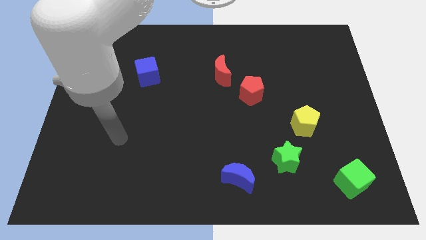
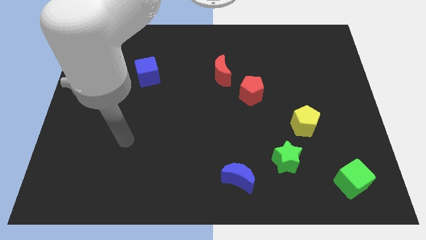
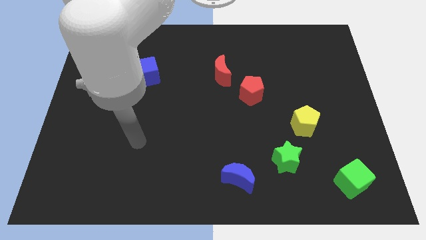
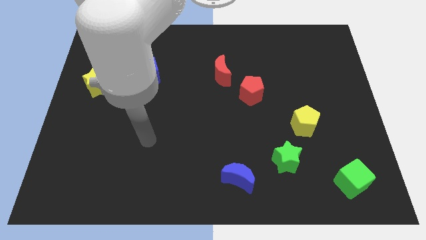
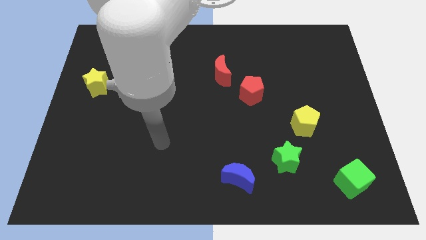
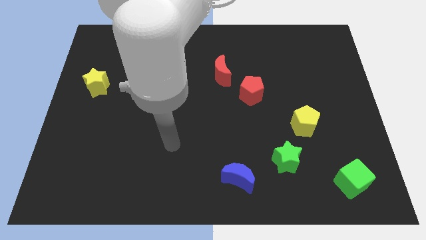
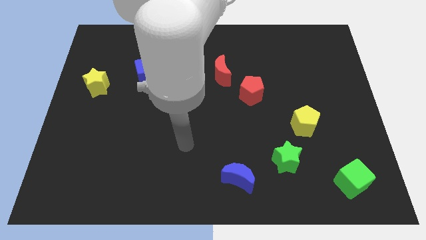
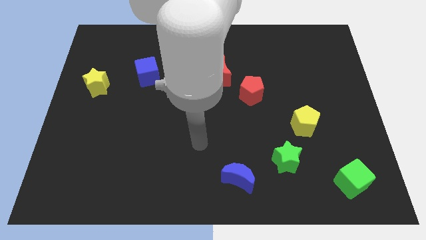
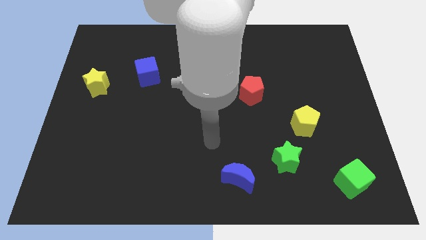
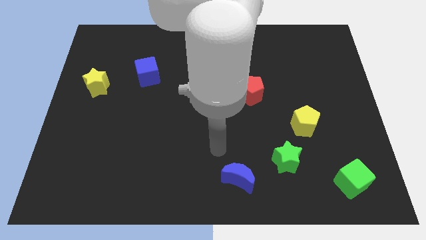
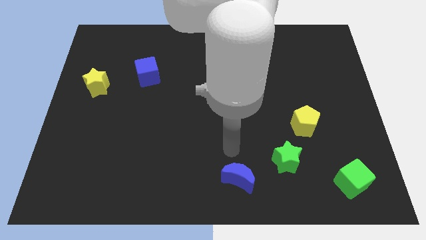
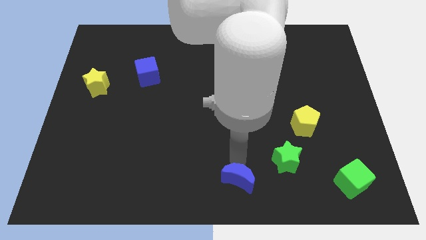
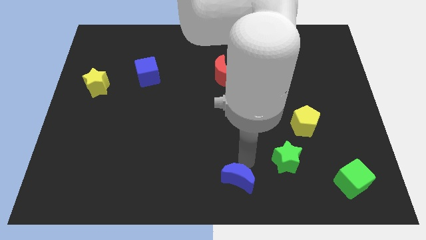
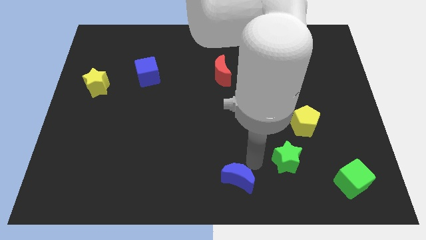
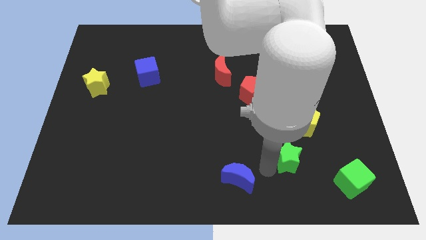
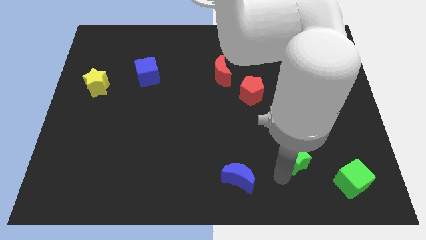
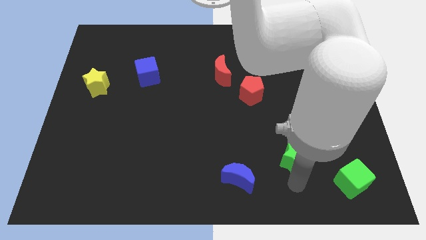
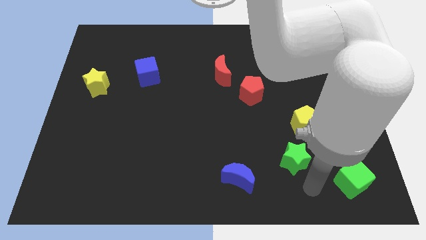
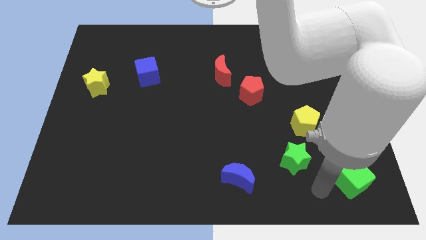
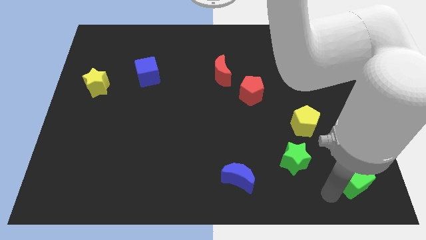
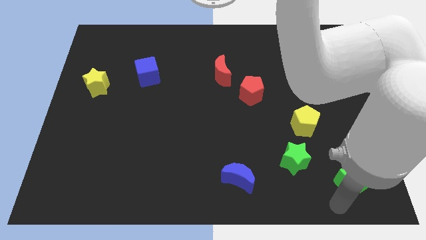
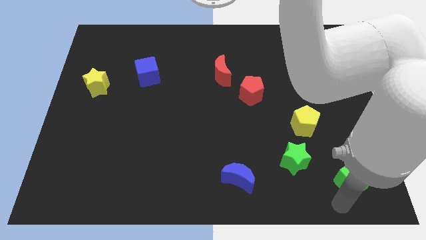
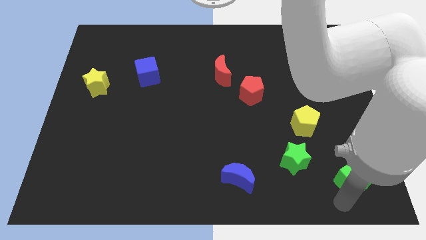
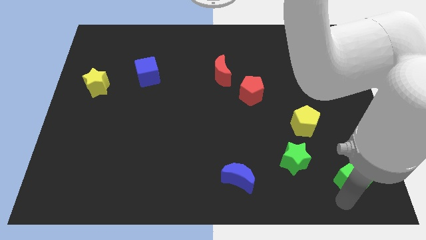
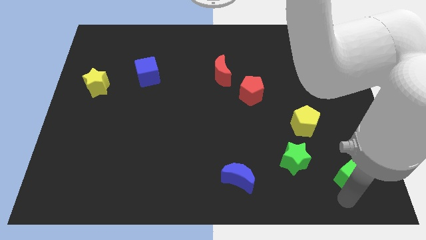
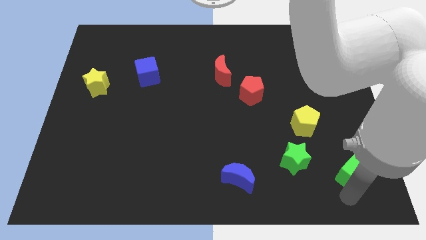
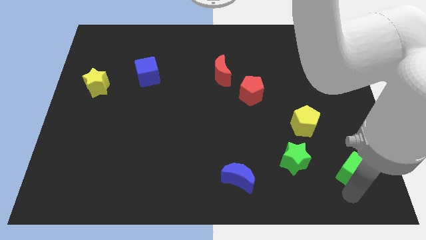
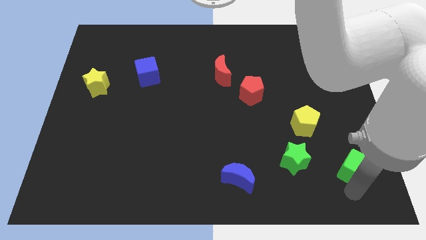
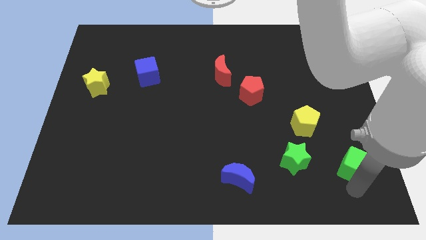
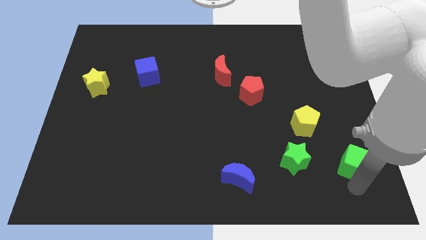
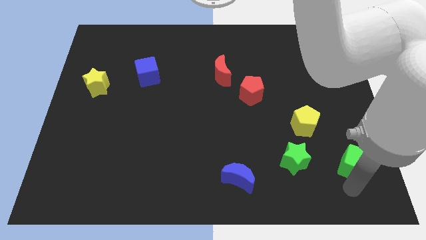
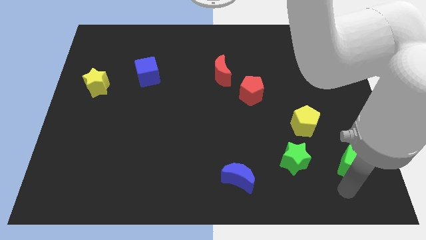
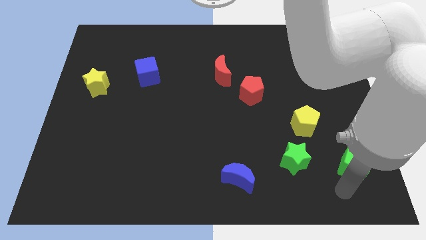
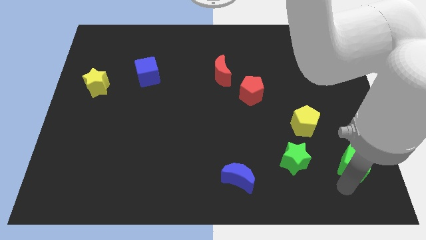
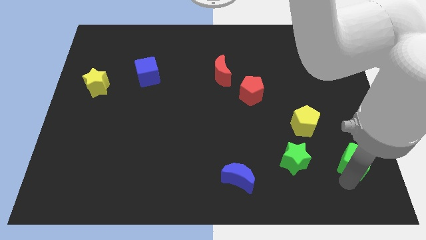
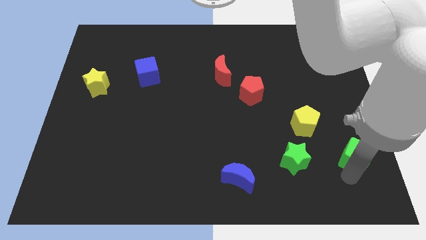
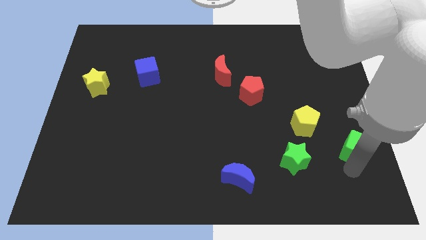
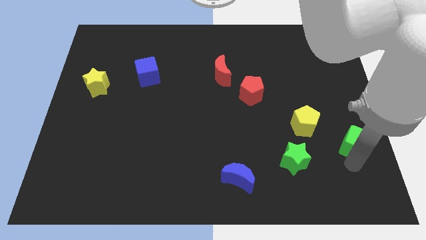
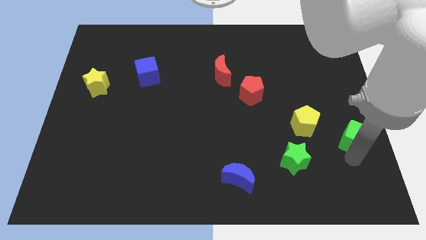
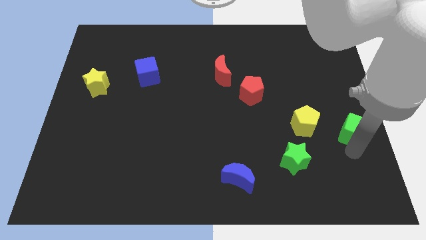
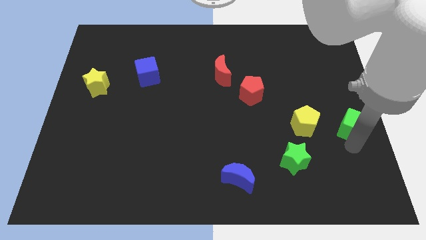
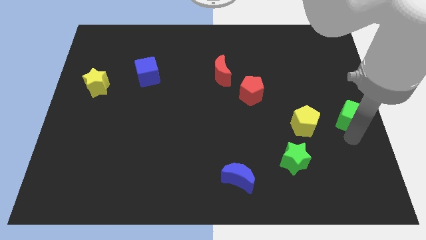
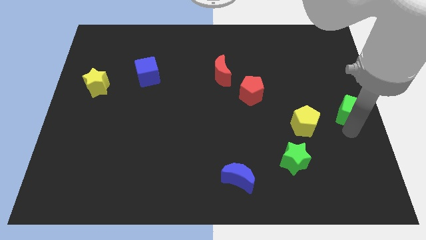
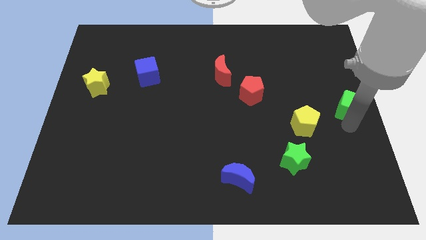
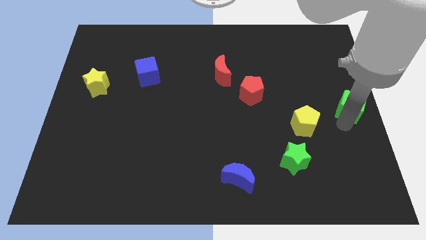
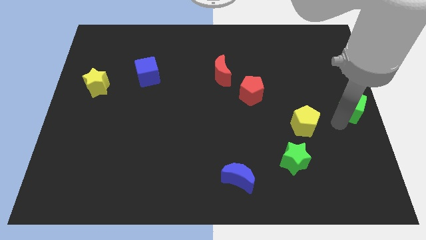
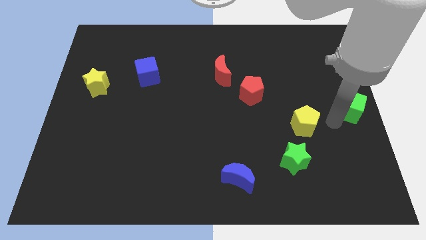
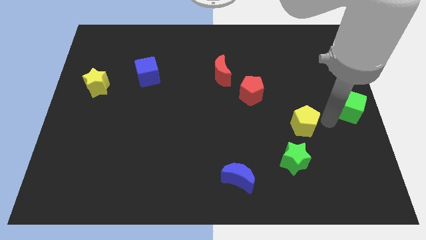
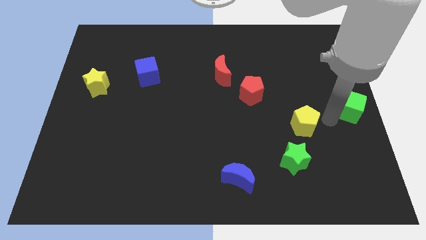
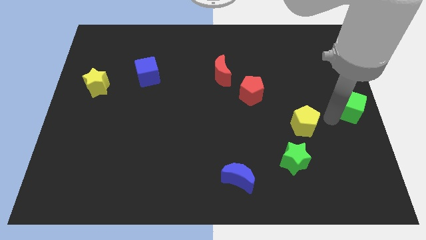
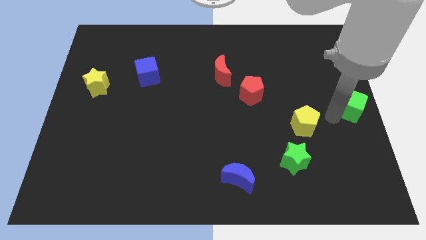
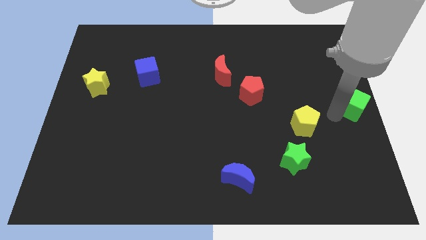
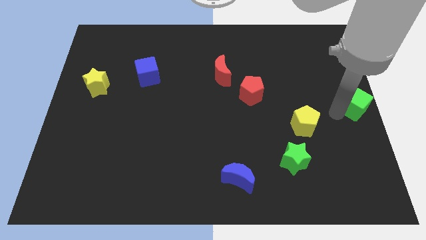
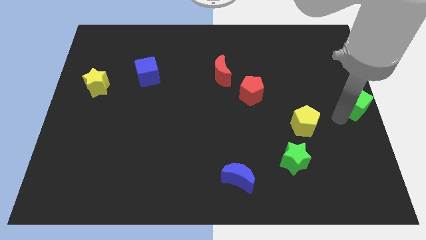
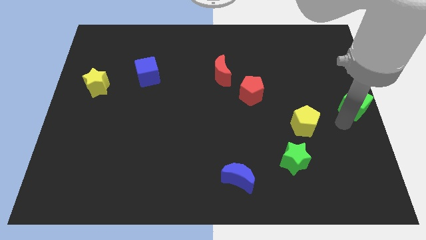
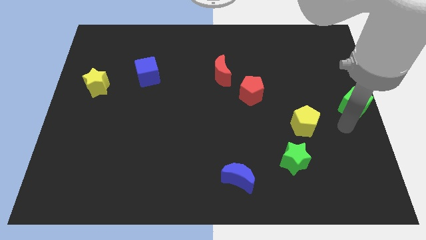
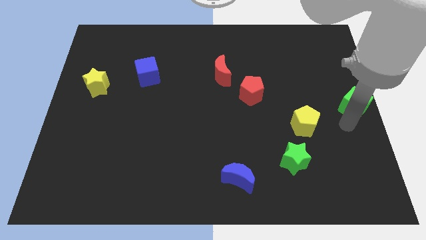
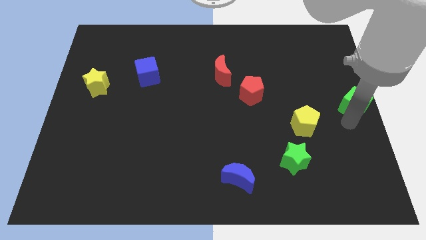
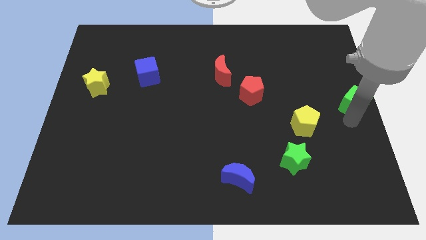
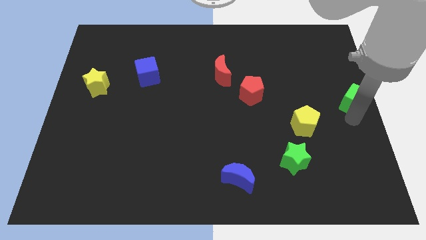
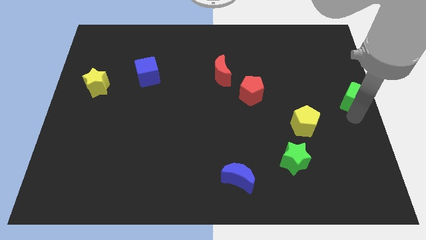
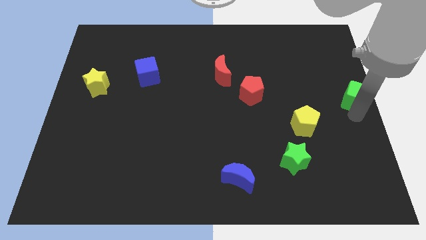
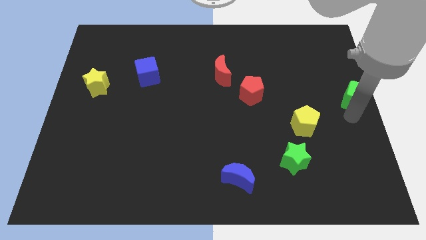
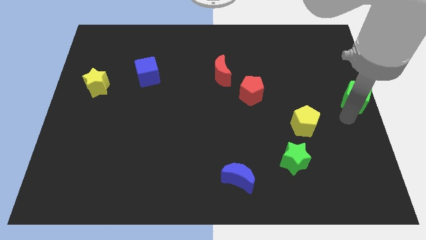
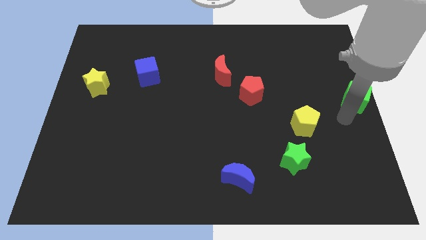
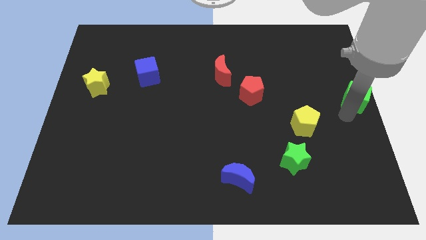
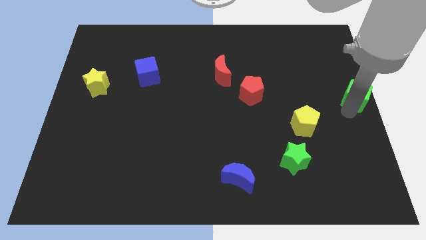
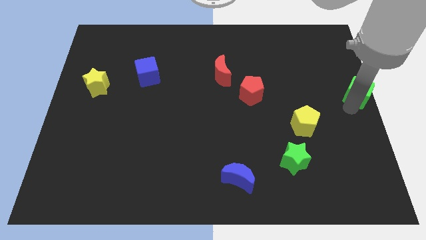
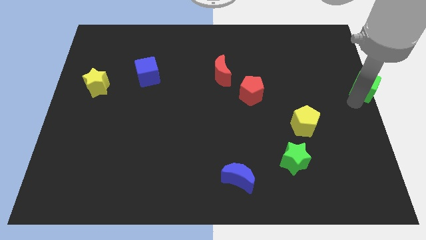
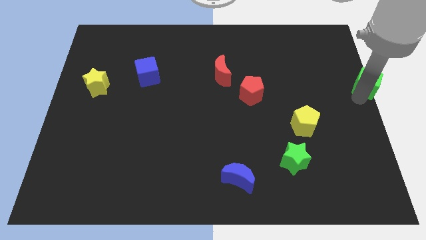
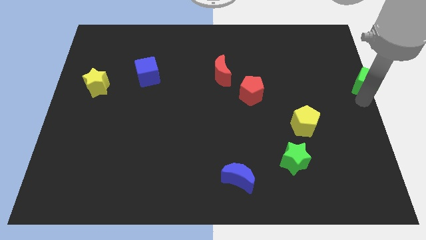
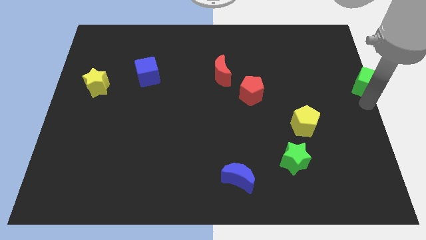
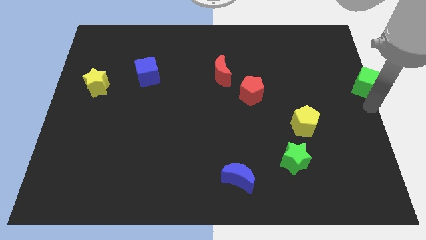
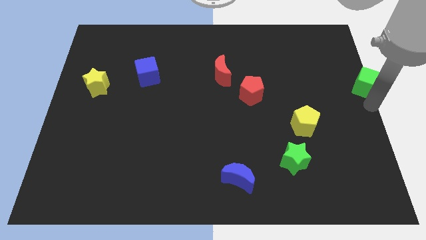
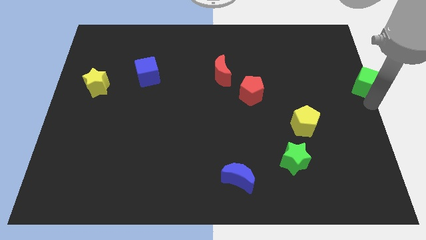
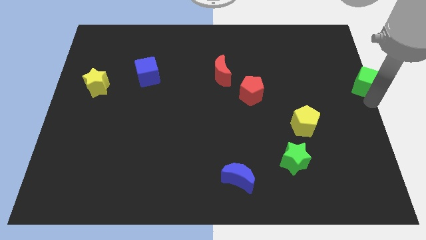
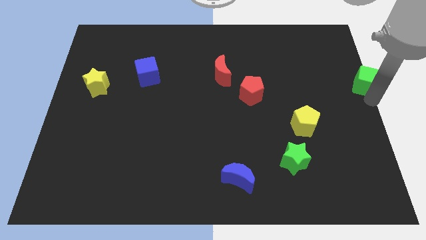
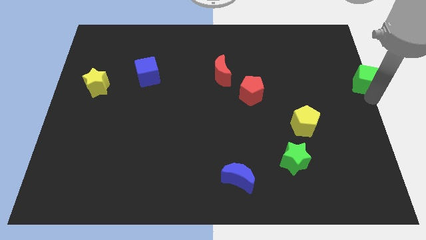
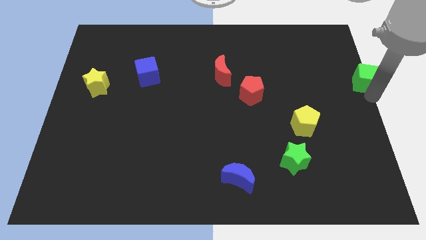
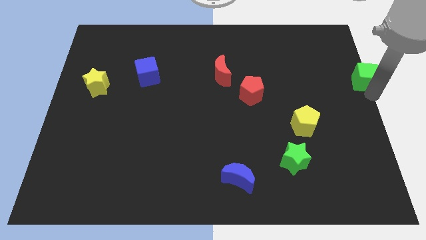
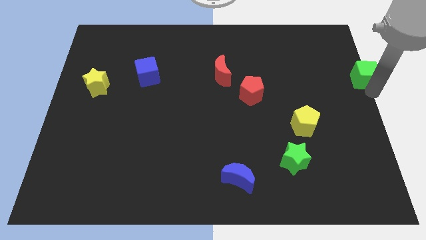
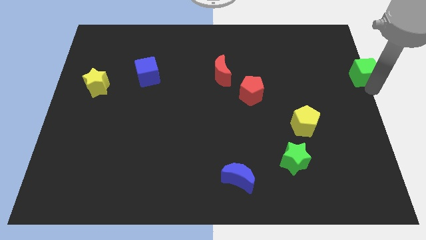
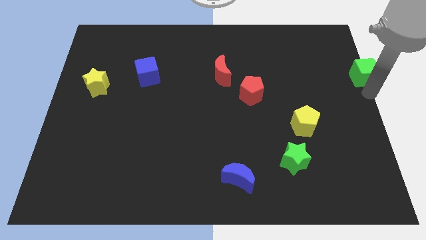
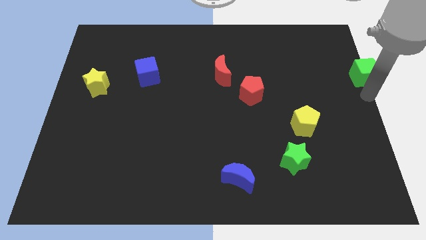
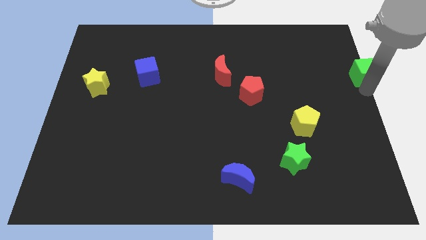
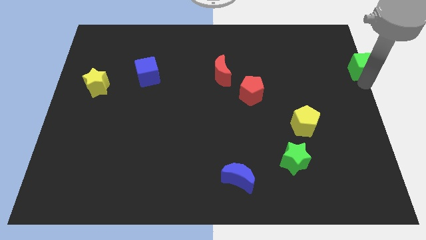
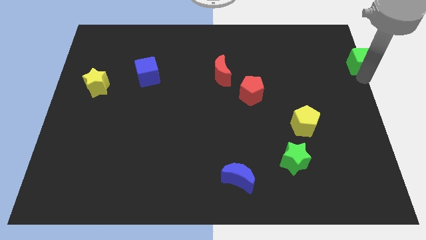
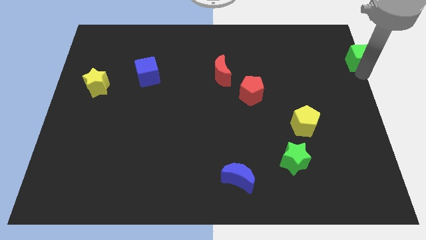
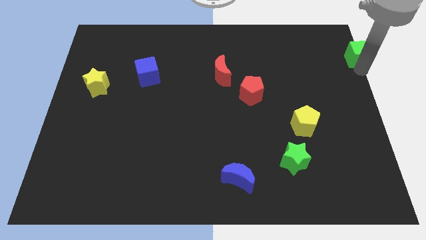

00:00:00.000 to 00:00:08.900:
move the green cube to the upper right corner
